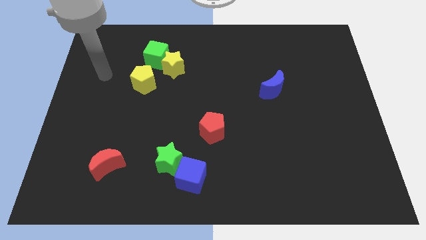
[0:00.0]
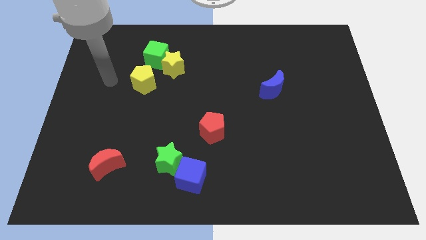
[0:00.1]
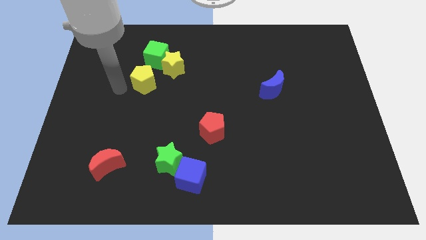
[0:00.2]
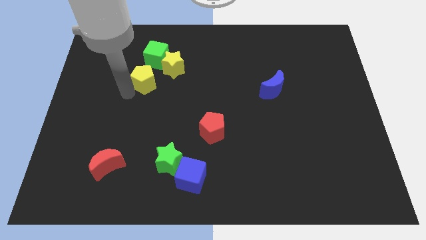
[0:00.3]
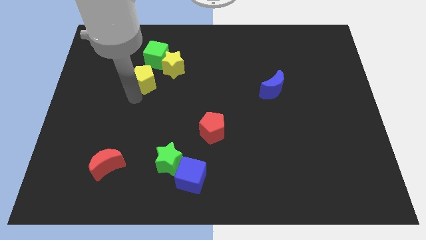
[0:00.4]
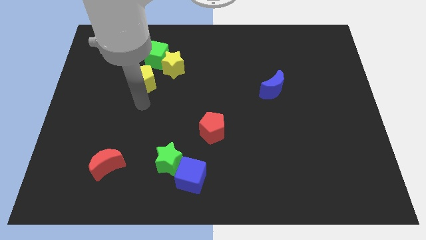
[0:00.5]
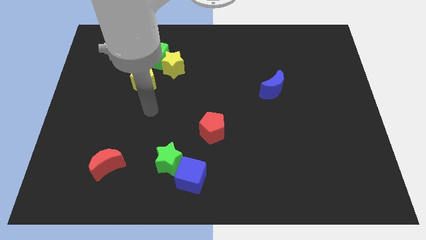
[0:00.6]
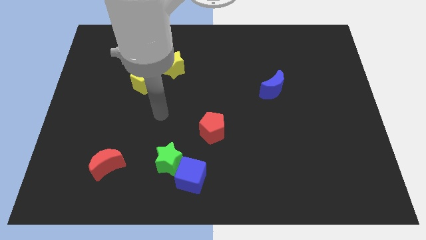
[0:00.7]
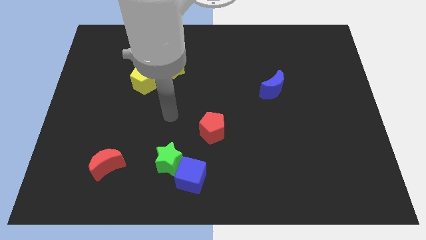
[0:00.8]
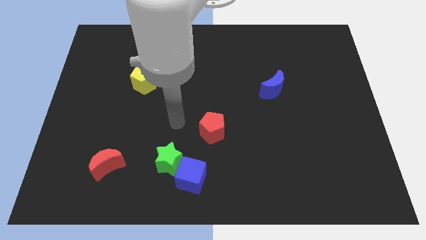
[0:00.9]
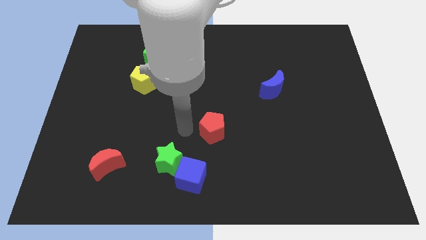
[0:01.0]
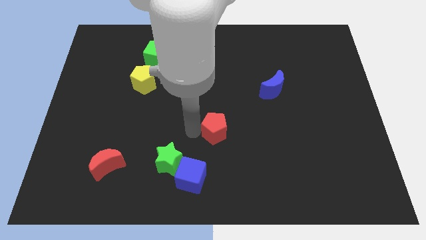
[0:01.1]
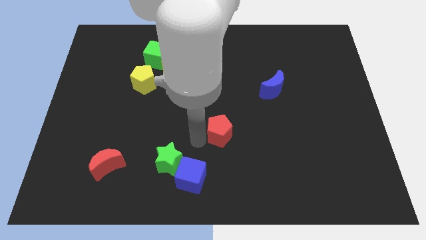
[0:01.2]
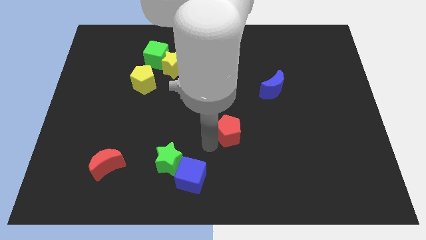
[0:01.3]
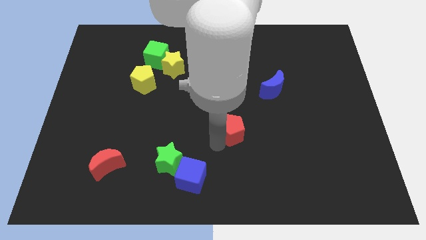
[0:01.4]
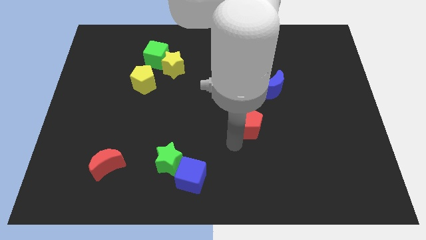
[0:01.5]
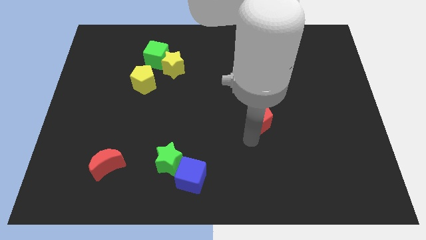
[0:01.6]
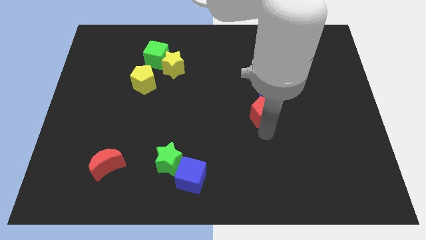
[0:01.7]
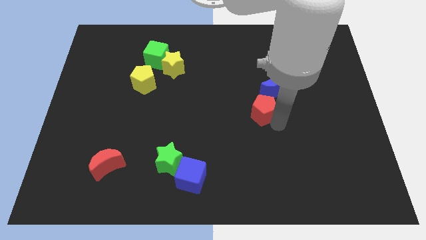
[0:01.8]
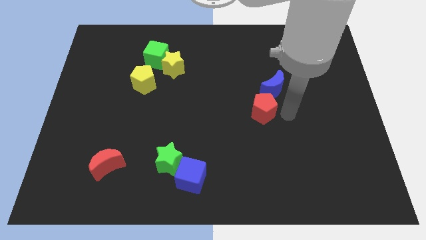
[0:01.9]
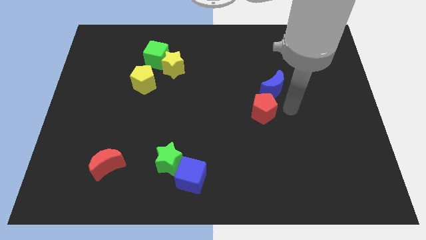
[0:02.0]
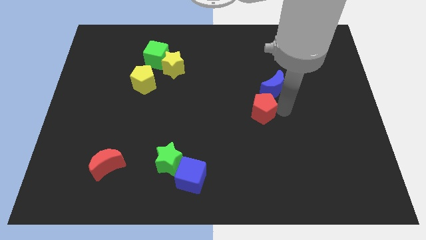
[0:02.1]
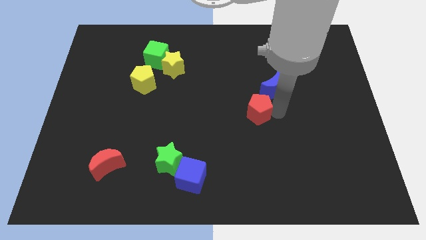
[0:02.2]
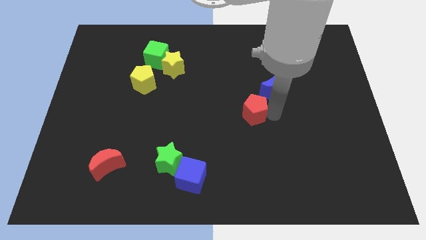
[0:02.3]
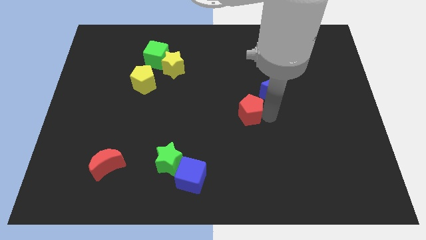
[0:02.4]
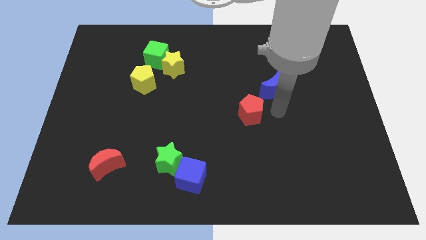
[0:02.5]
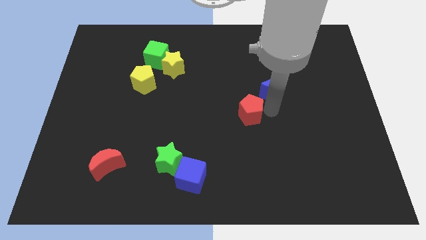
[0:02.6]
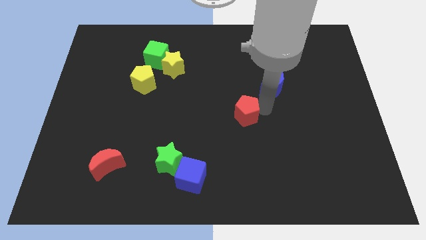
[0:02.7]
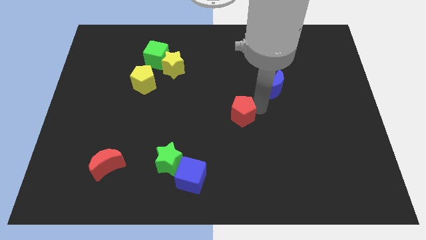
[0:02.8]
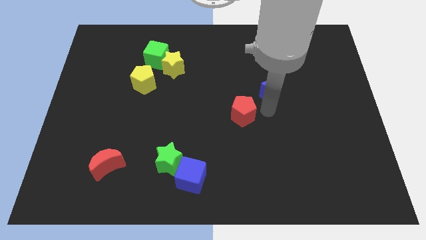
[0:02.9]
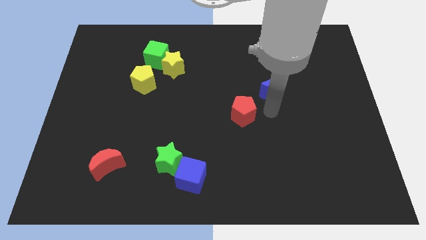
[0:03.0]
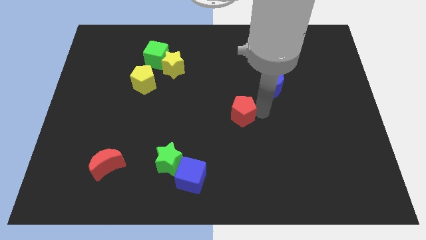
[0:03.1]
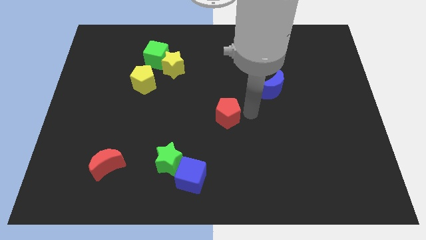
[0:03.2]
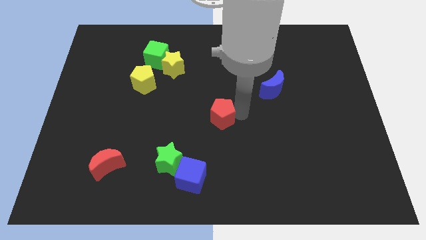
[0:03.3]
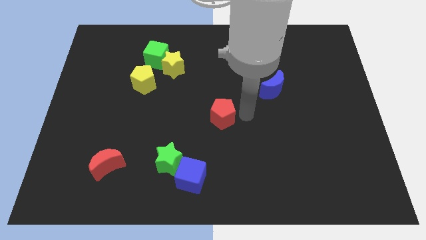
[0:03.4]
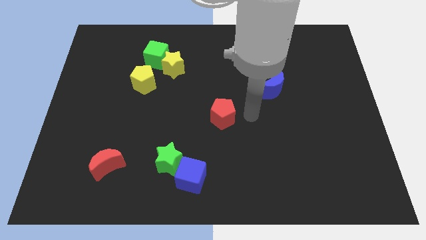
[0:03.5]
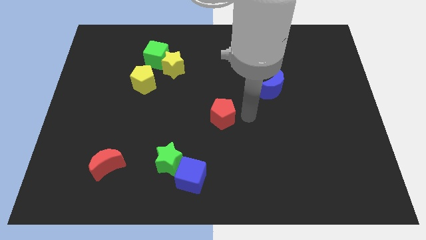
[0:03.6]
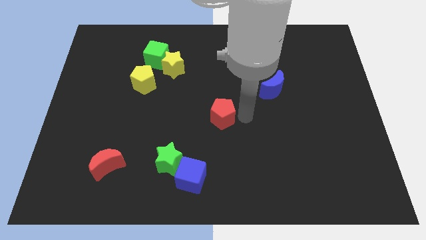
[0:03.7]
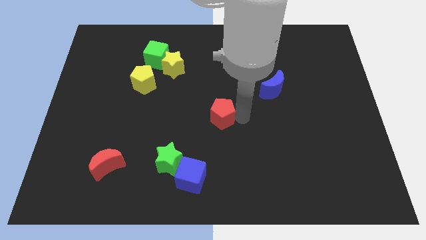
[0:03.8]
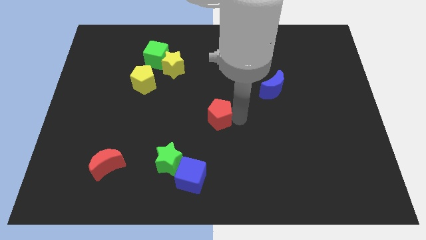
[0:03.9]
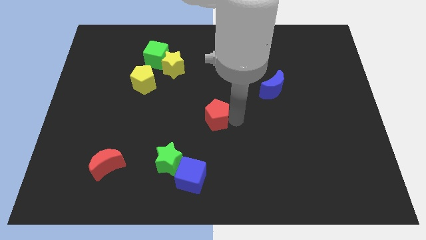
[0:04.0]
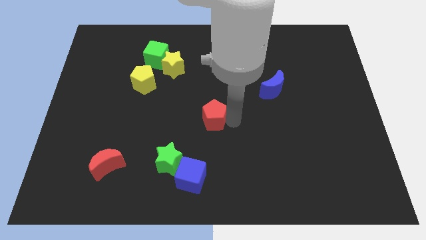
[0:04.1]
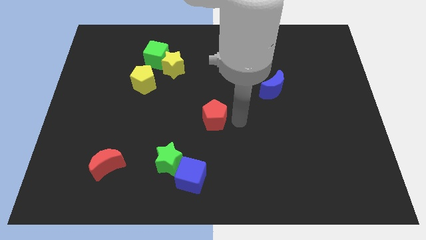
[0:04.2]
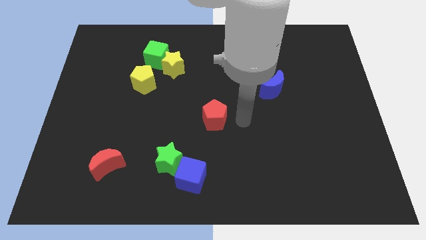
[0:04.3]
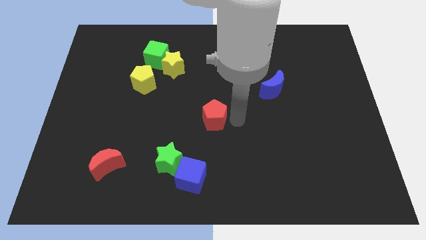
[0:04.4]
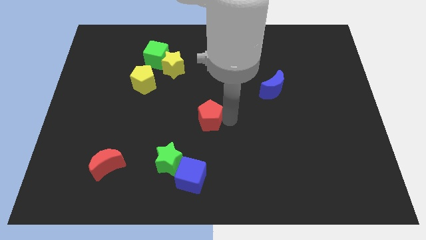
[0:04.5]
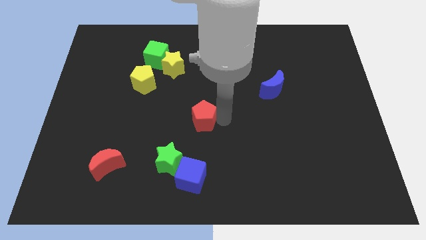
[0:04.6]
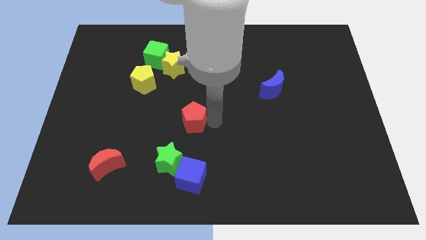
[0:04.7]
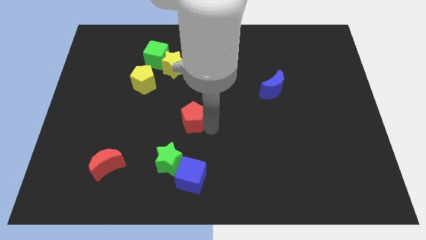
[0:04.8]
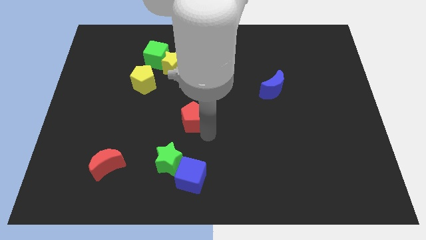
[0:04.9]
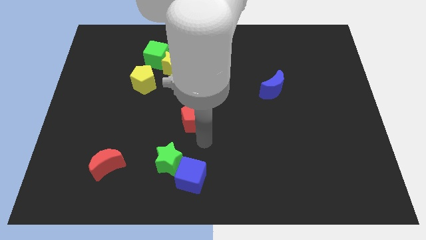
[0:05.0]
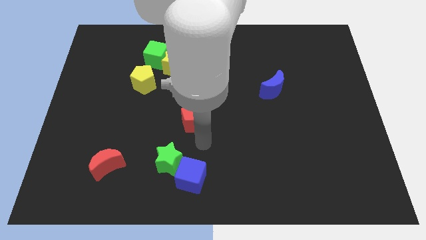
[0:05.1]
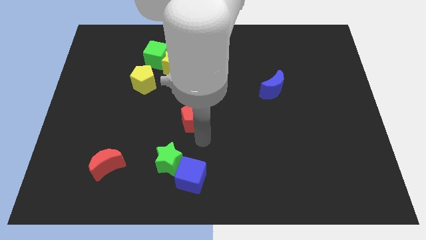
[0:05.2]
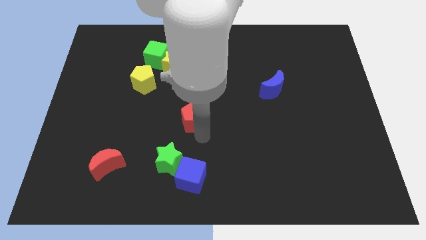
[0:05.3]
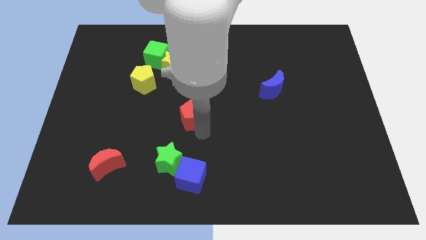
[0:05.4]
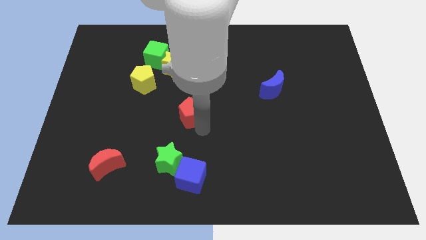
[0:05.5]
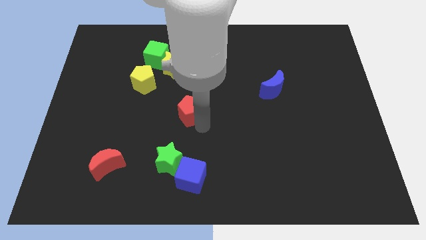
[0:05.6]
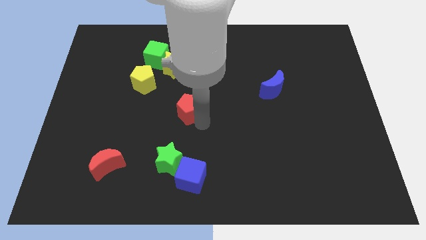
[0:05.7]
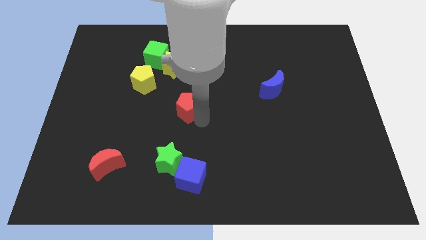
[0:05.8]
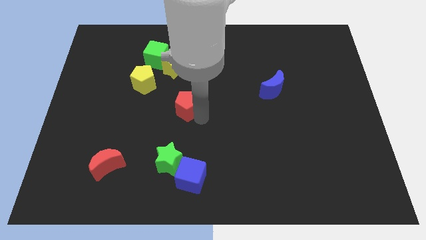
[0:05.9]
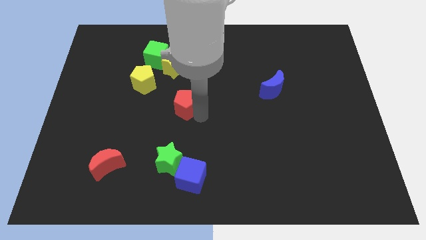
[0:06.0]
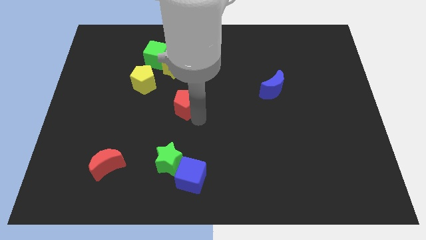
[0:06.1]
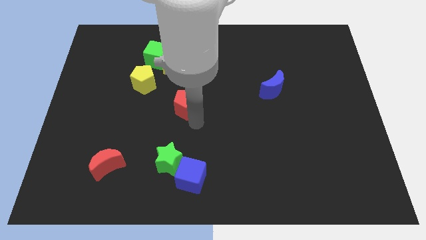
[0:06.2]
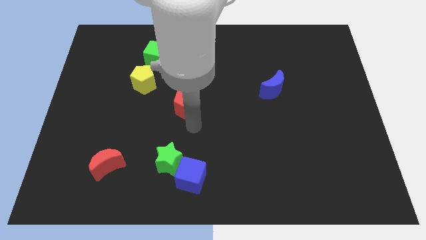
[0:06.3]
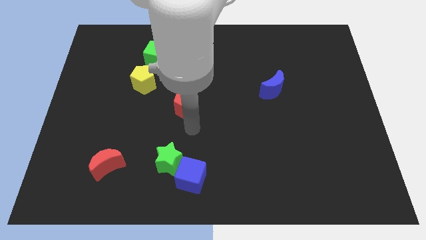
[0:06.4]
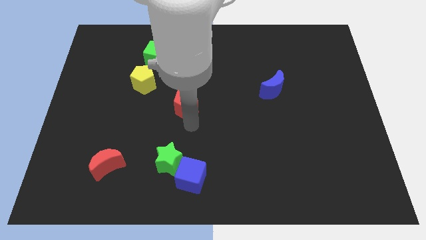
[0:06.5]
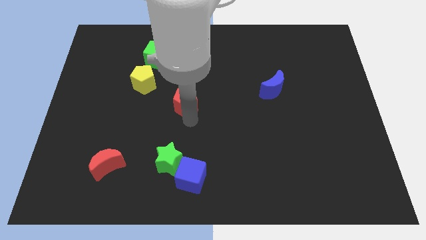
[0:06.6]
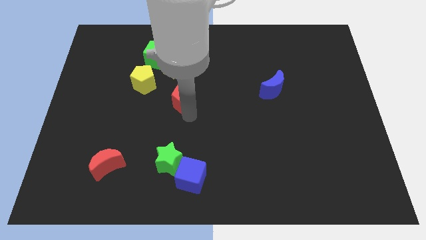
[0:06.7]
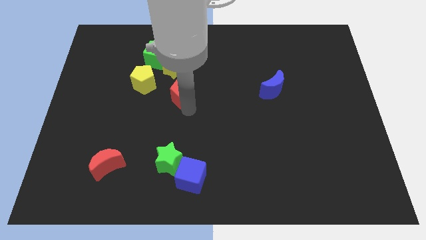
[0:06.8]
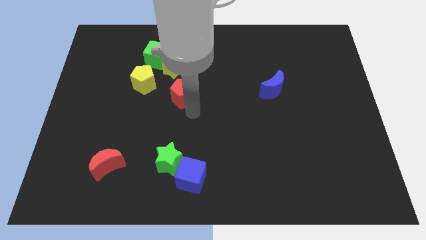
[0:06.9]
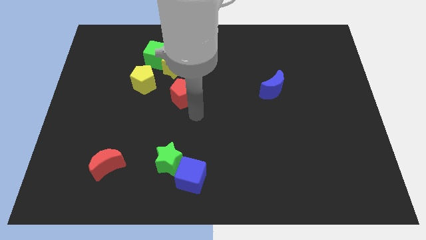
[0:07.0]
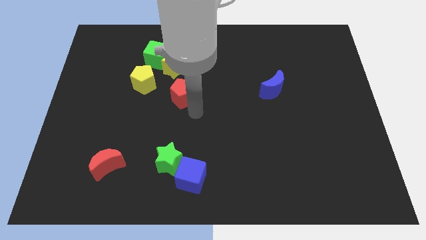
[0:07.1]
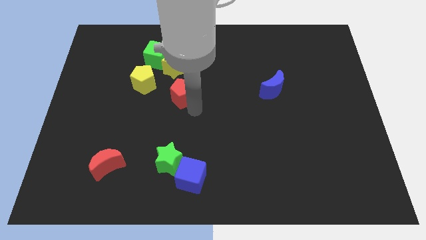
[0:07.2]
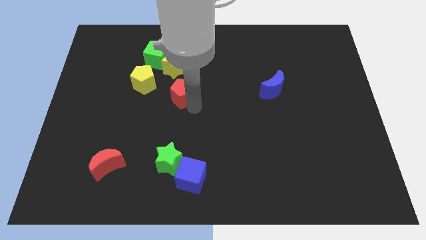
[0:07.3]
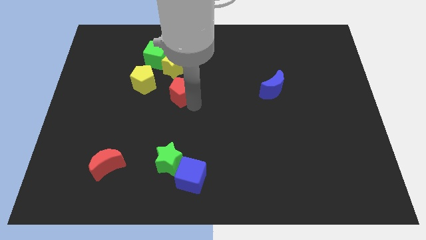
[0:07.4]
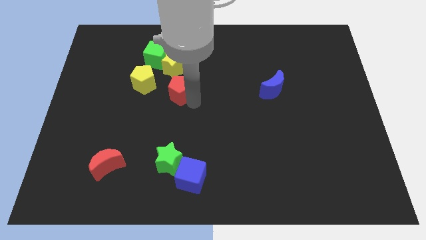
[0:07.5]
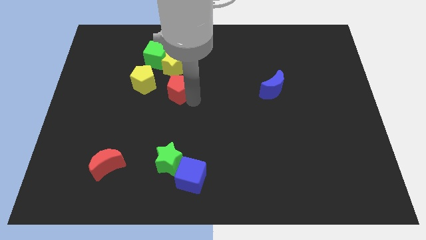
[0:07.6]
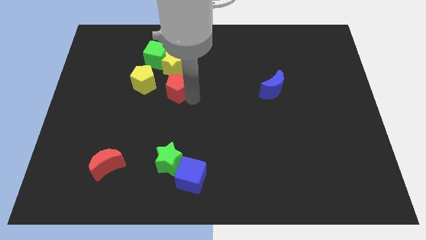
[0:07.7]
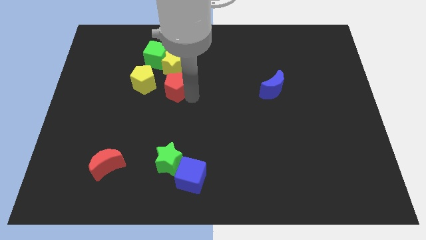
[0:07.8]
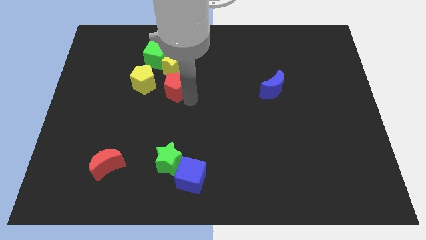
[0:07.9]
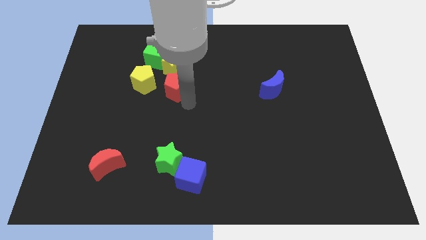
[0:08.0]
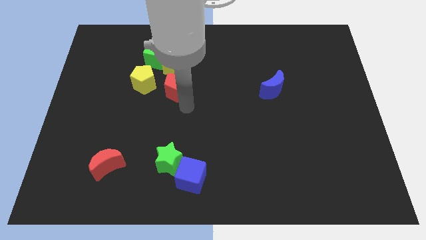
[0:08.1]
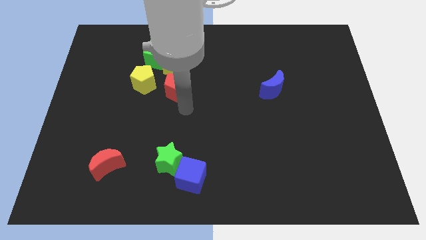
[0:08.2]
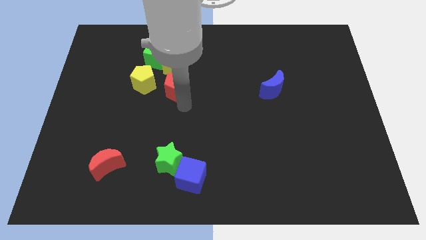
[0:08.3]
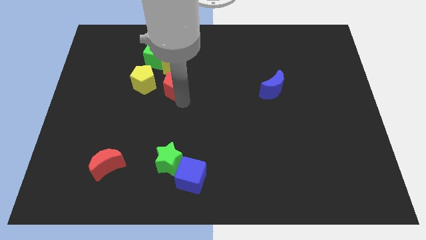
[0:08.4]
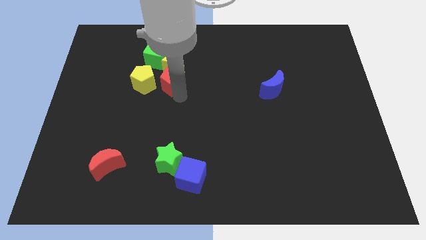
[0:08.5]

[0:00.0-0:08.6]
move the red pentagon next to the yellow star
